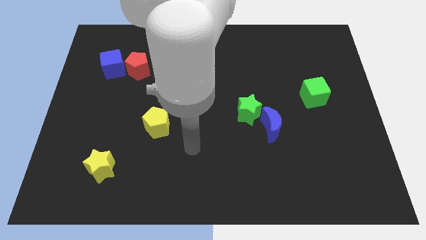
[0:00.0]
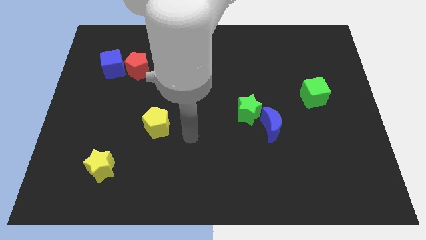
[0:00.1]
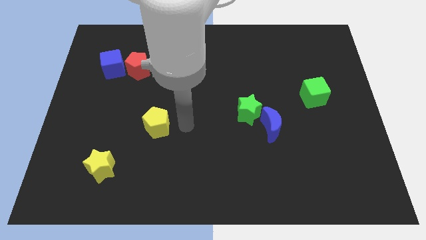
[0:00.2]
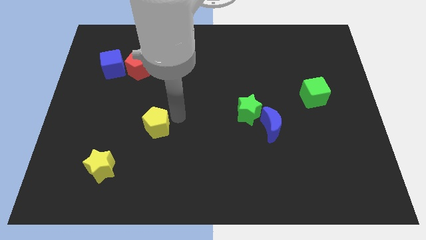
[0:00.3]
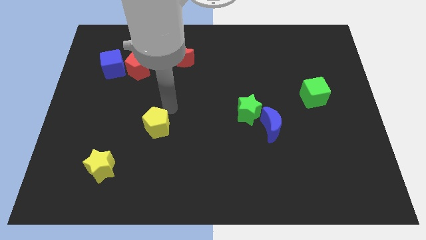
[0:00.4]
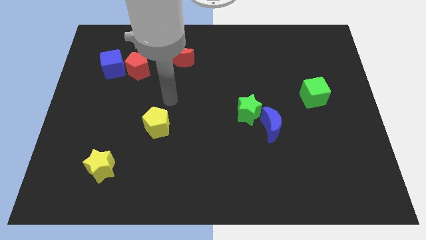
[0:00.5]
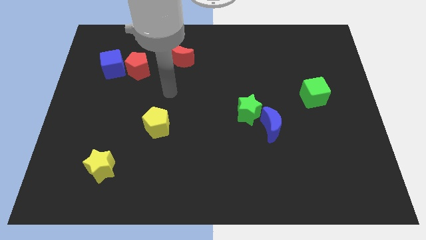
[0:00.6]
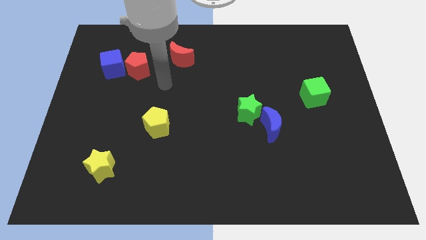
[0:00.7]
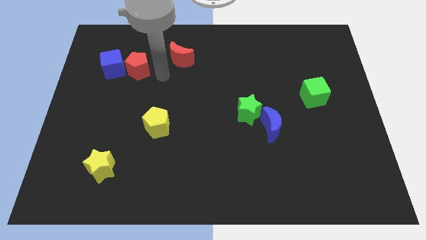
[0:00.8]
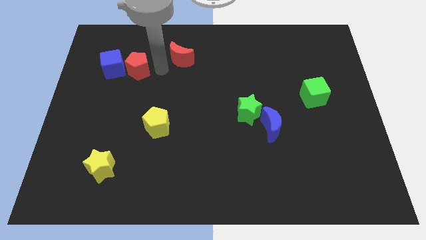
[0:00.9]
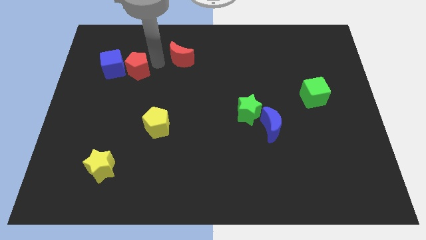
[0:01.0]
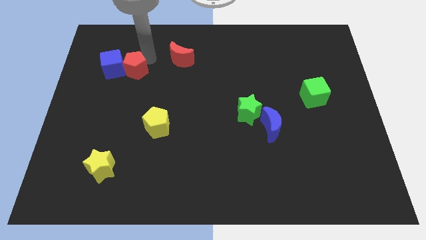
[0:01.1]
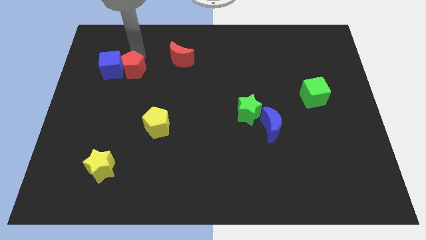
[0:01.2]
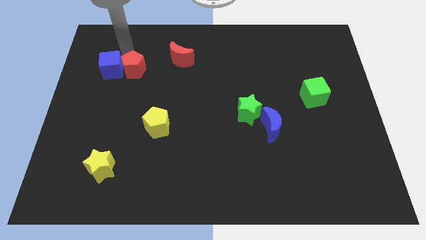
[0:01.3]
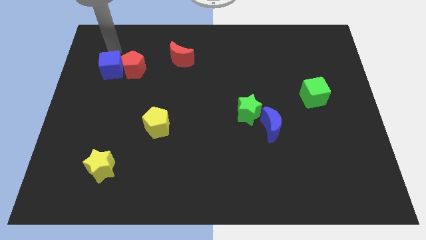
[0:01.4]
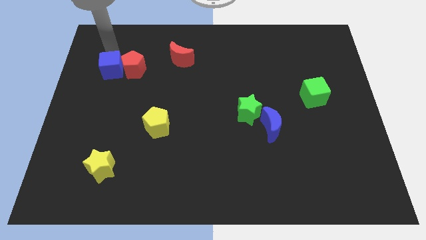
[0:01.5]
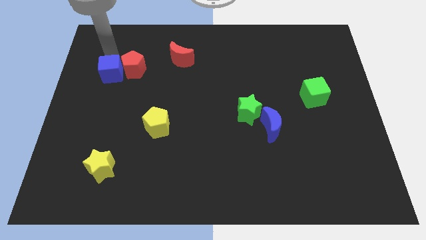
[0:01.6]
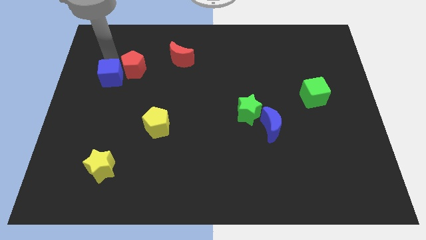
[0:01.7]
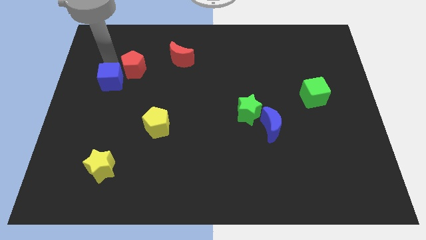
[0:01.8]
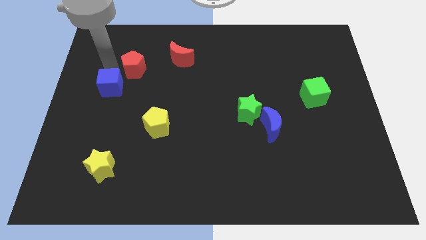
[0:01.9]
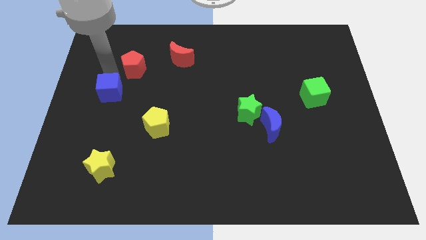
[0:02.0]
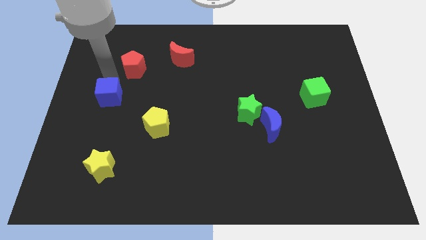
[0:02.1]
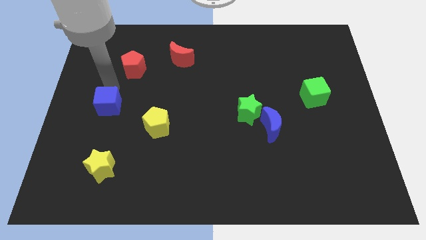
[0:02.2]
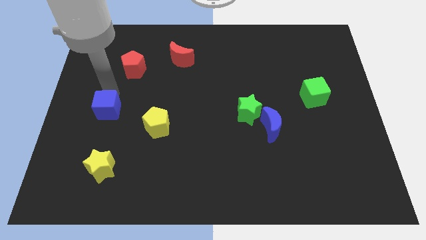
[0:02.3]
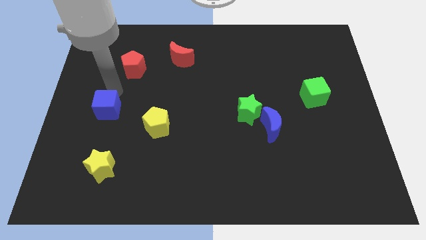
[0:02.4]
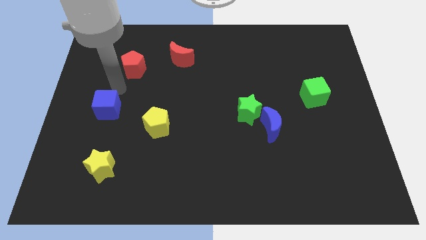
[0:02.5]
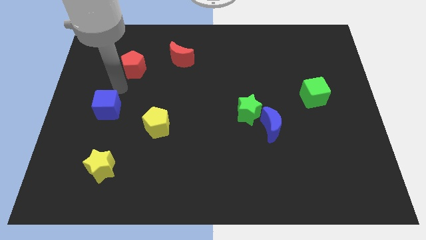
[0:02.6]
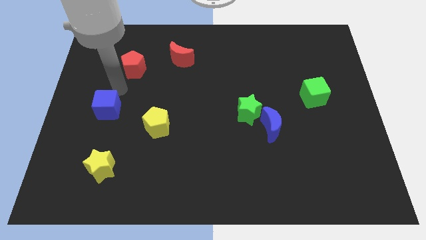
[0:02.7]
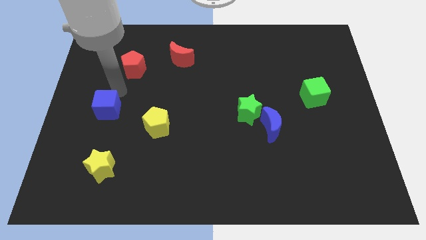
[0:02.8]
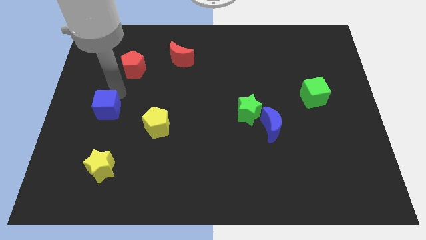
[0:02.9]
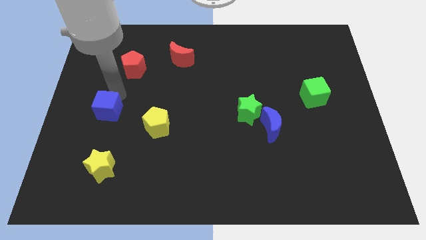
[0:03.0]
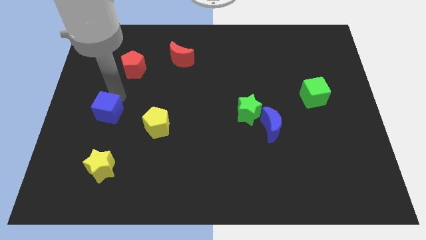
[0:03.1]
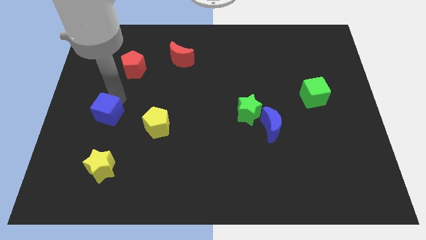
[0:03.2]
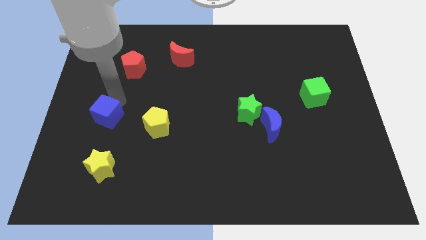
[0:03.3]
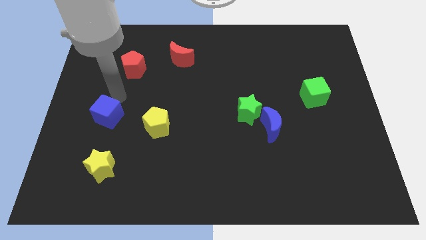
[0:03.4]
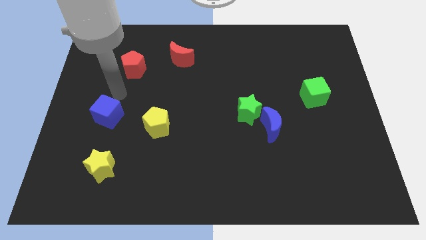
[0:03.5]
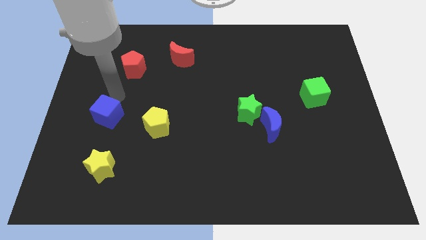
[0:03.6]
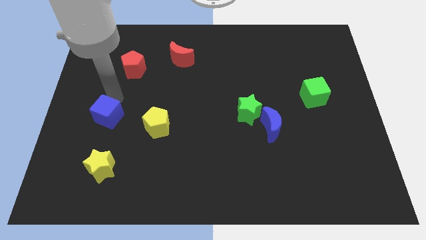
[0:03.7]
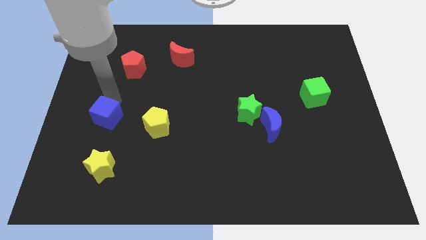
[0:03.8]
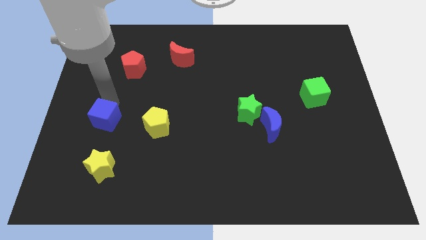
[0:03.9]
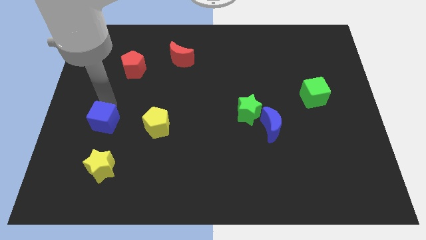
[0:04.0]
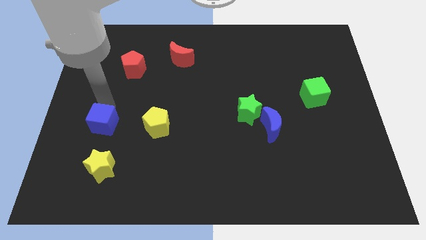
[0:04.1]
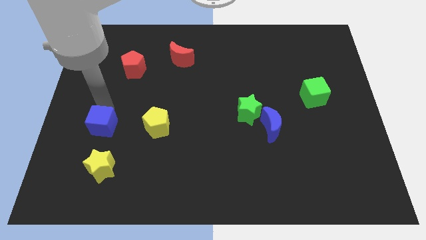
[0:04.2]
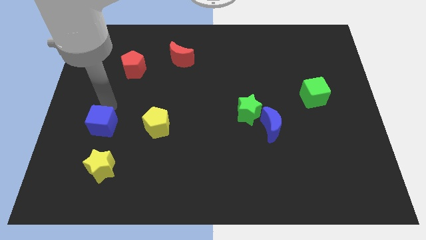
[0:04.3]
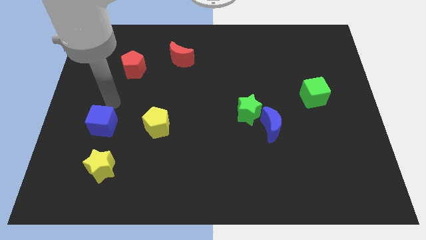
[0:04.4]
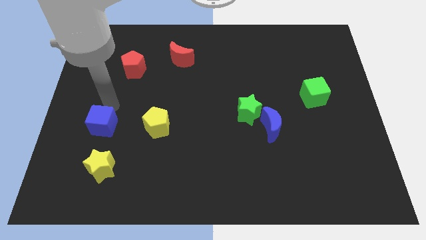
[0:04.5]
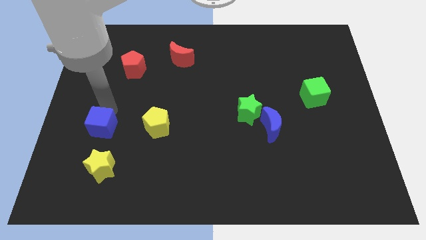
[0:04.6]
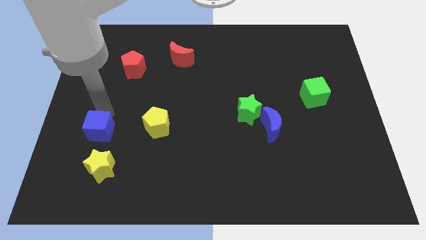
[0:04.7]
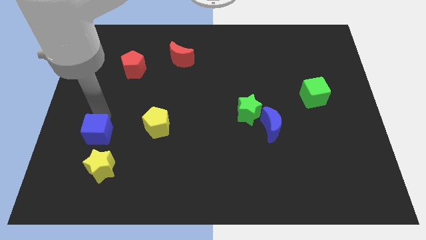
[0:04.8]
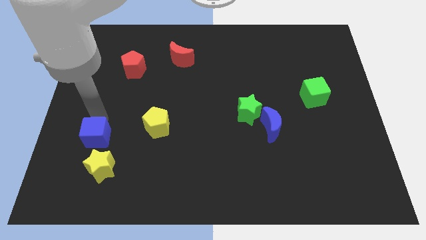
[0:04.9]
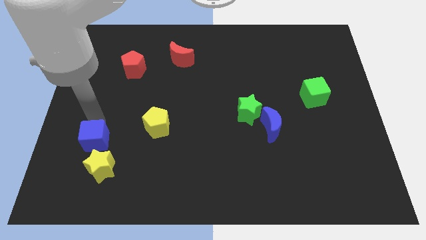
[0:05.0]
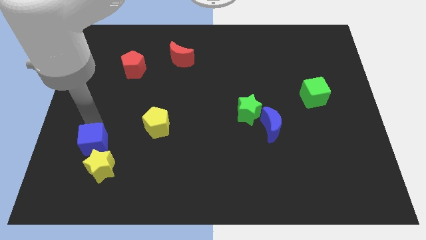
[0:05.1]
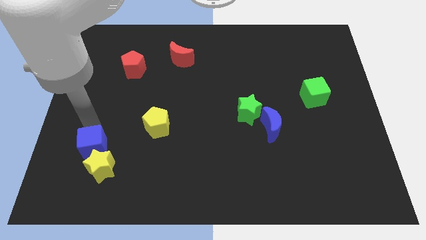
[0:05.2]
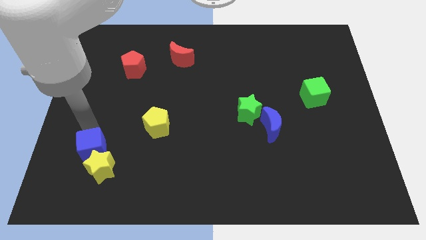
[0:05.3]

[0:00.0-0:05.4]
move the blue cube to the yellow star

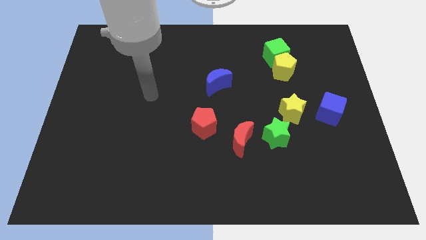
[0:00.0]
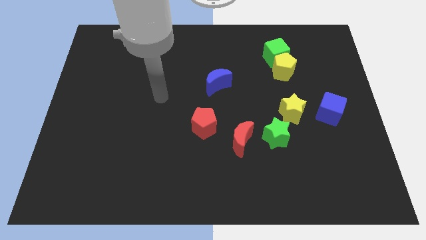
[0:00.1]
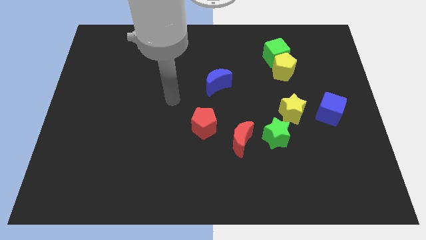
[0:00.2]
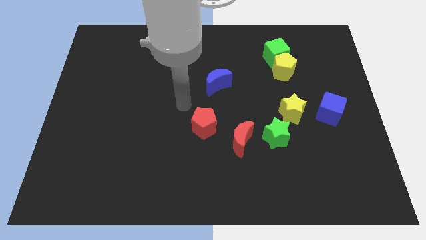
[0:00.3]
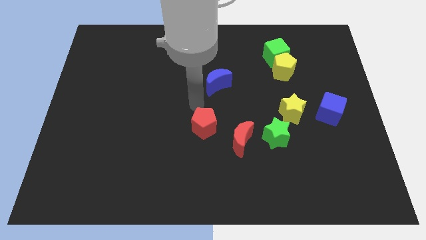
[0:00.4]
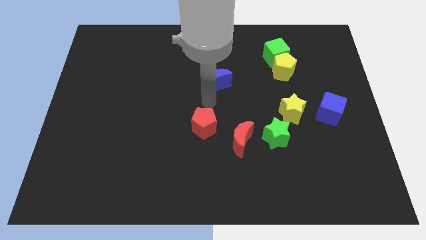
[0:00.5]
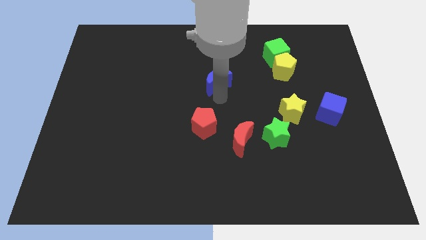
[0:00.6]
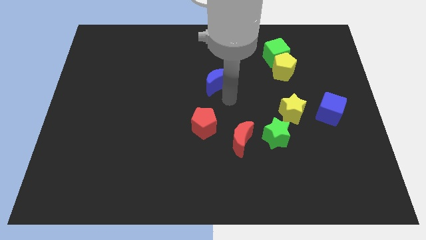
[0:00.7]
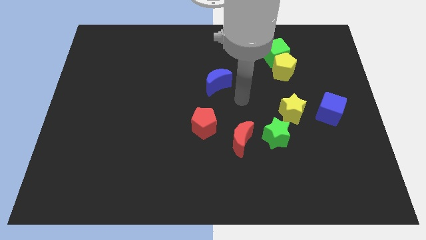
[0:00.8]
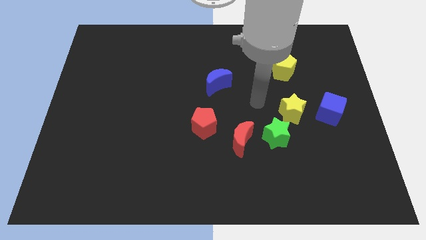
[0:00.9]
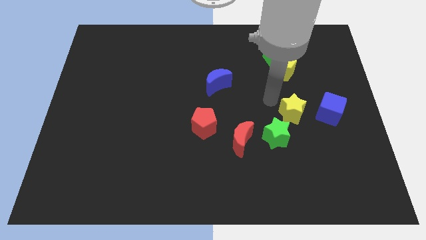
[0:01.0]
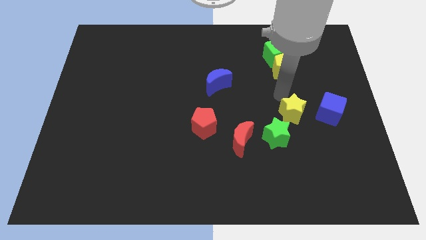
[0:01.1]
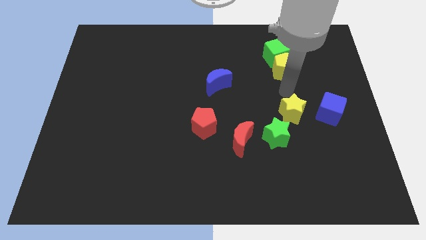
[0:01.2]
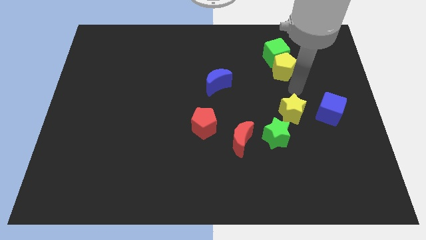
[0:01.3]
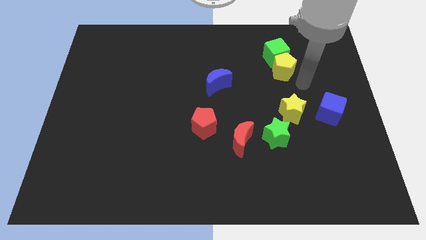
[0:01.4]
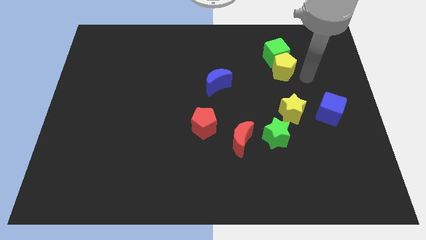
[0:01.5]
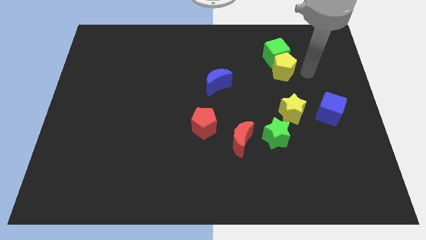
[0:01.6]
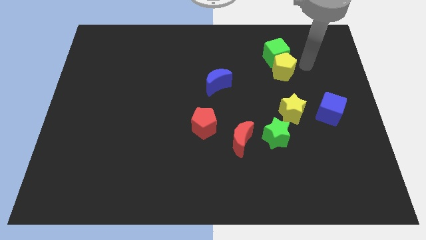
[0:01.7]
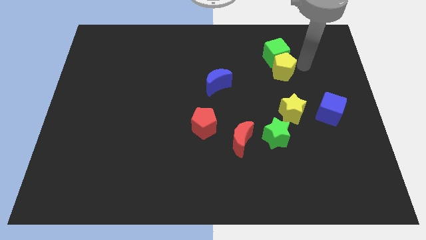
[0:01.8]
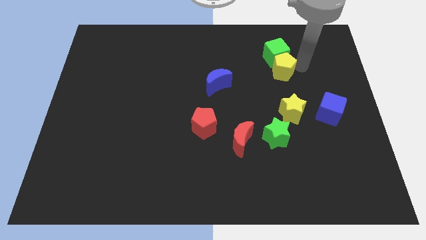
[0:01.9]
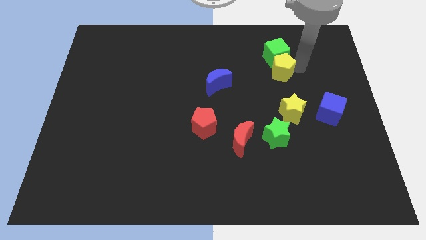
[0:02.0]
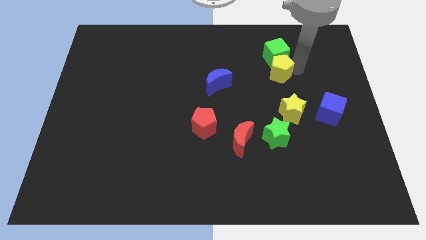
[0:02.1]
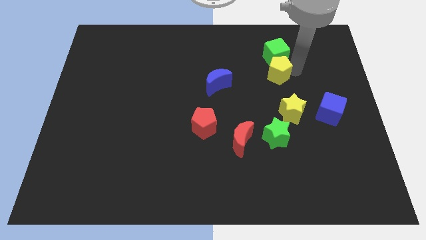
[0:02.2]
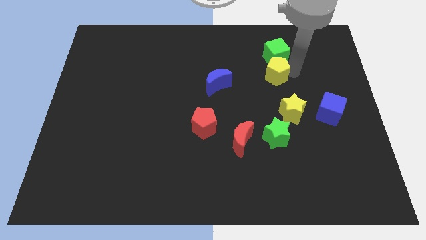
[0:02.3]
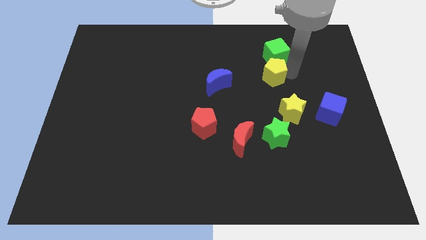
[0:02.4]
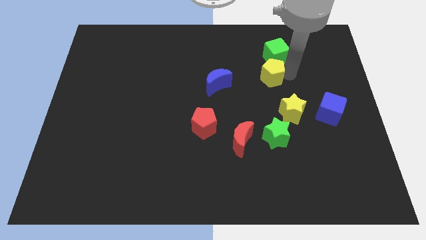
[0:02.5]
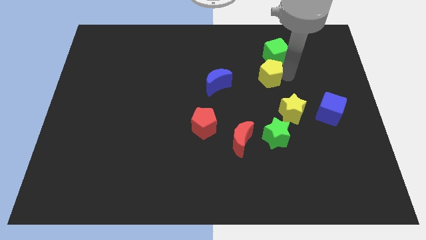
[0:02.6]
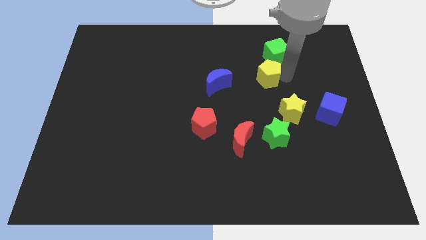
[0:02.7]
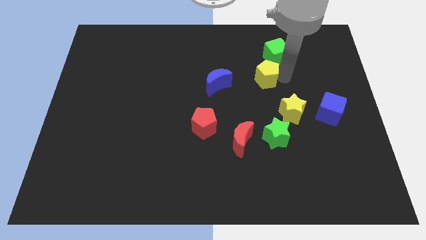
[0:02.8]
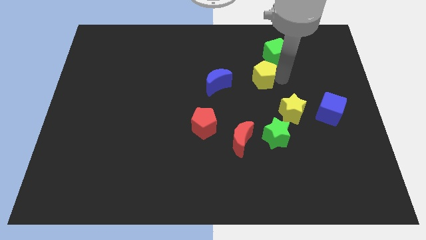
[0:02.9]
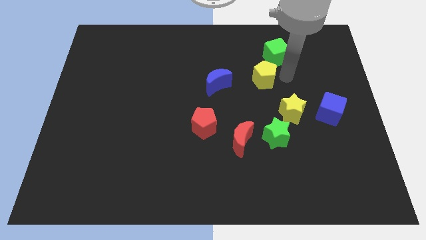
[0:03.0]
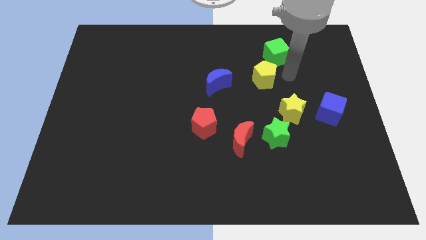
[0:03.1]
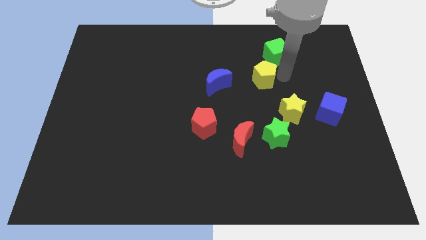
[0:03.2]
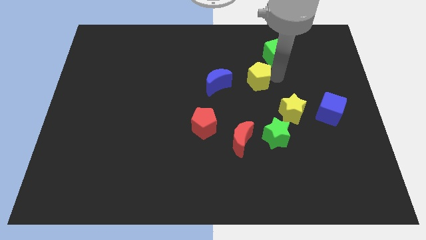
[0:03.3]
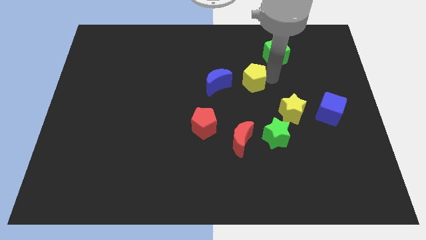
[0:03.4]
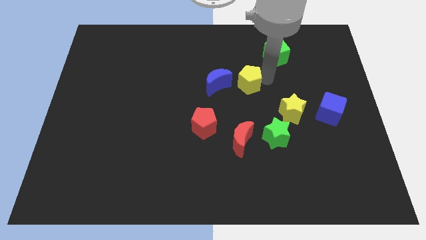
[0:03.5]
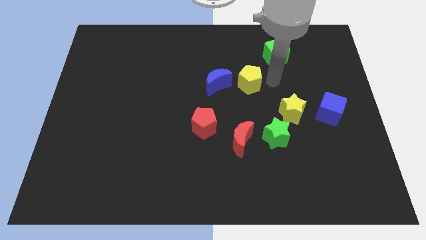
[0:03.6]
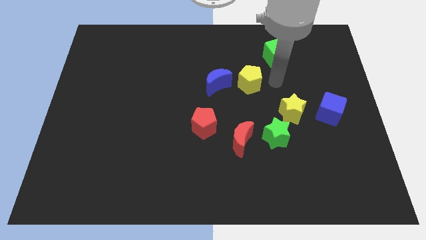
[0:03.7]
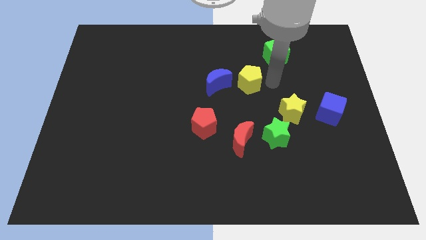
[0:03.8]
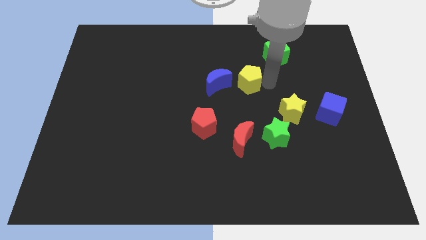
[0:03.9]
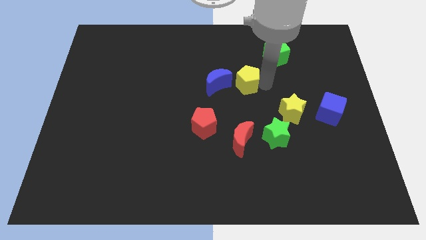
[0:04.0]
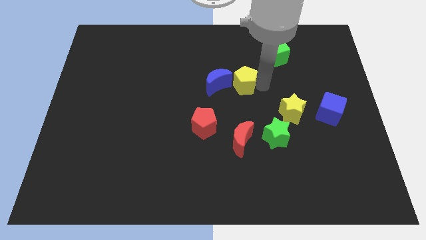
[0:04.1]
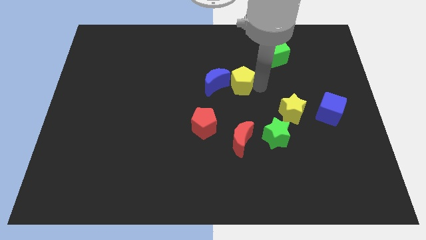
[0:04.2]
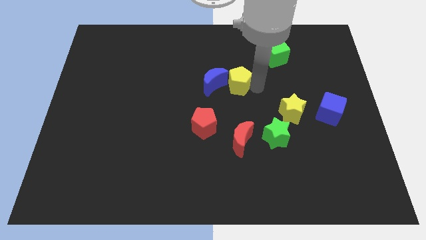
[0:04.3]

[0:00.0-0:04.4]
slide the yellow pentagon close to the blue moon
